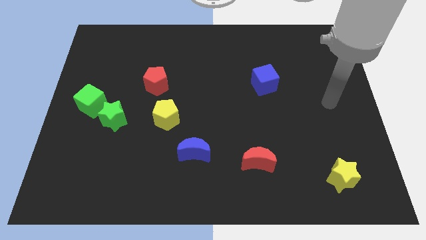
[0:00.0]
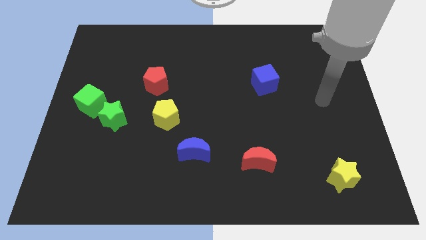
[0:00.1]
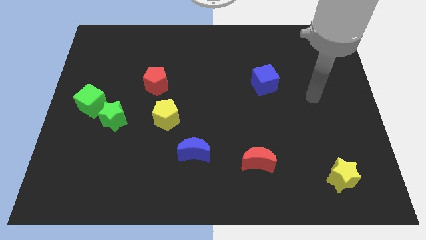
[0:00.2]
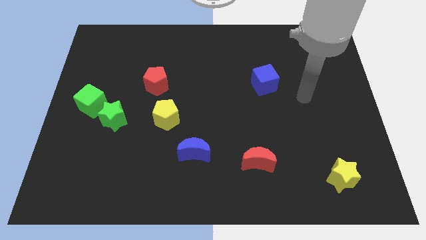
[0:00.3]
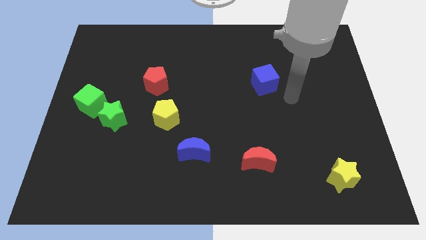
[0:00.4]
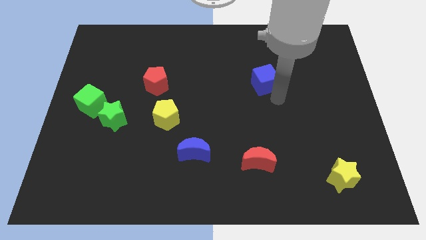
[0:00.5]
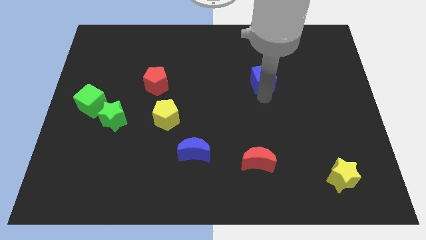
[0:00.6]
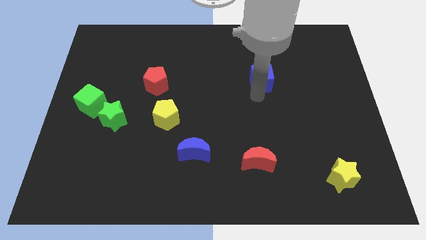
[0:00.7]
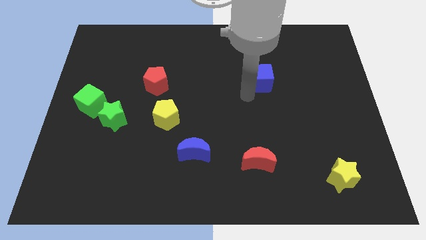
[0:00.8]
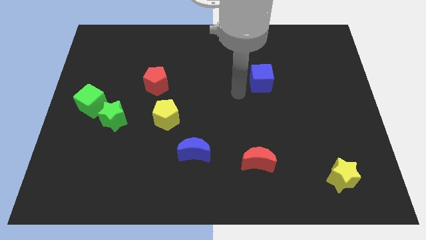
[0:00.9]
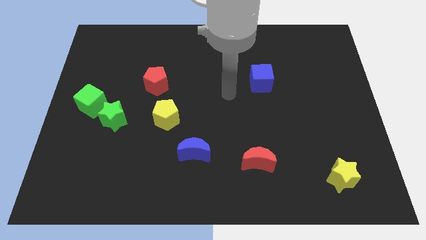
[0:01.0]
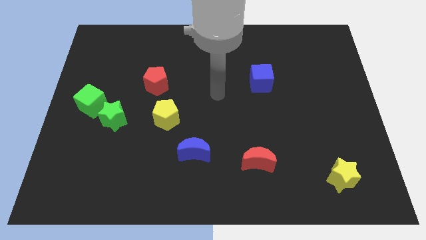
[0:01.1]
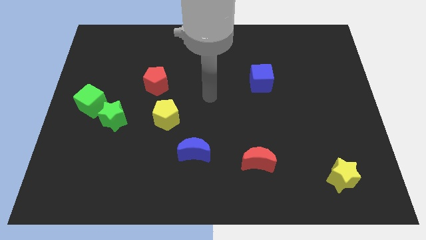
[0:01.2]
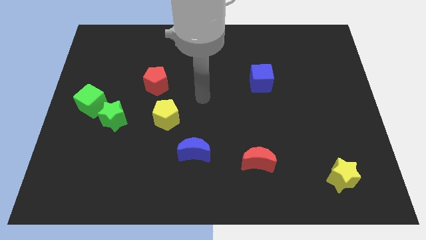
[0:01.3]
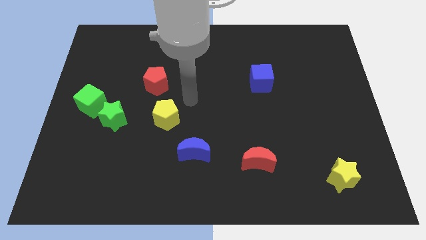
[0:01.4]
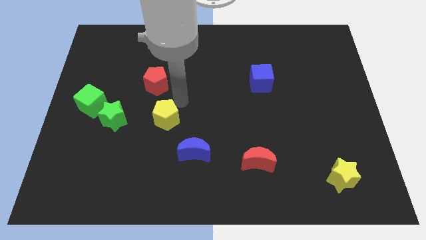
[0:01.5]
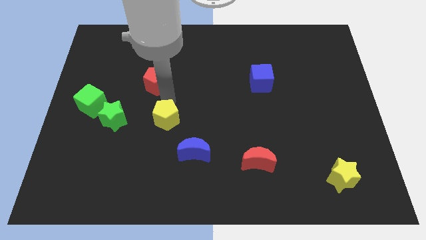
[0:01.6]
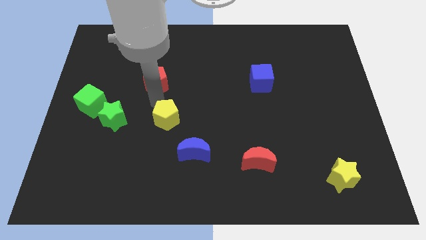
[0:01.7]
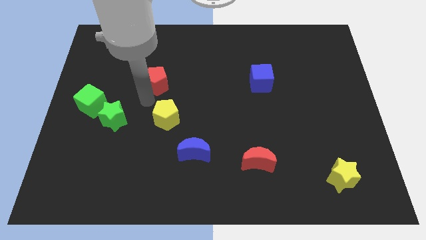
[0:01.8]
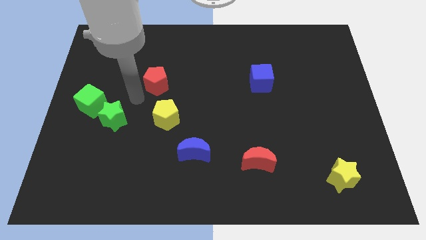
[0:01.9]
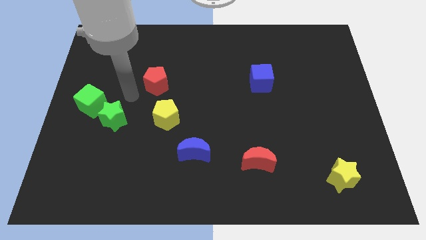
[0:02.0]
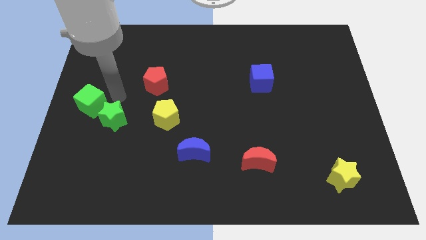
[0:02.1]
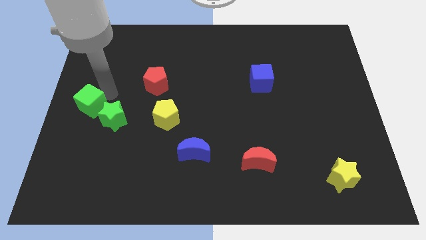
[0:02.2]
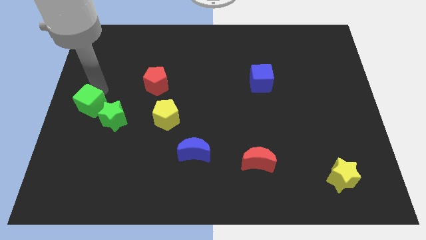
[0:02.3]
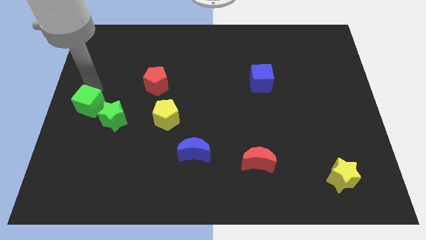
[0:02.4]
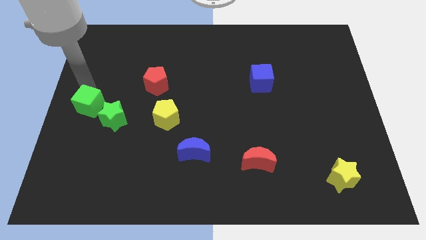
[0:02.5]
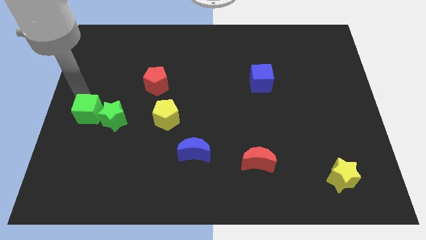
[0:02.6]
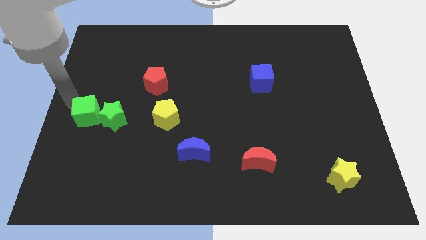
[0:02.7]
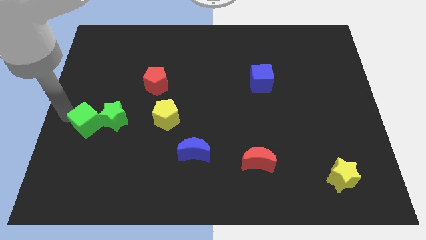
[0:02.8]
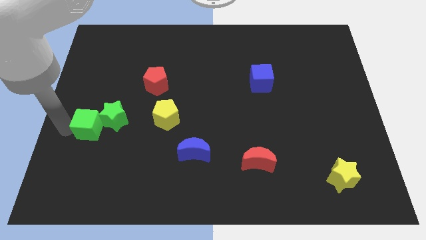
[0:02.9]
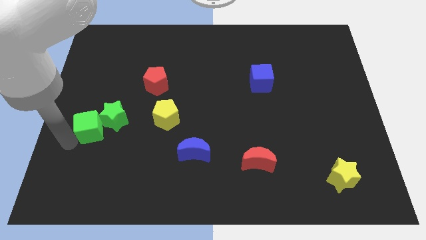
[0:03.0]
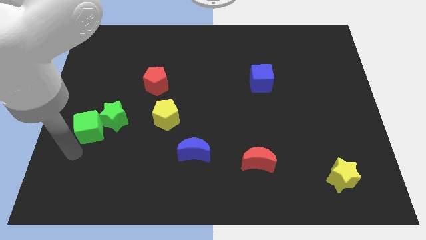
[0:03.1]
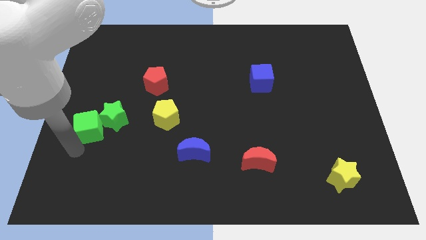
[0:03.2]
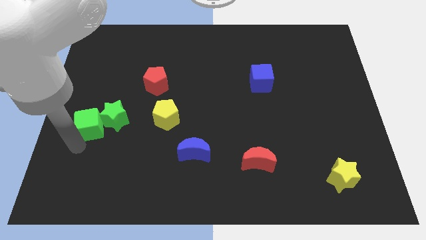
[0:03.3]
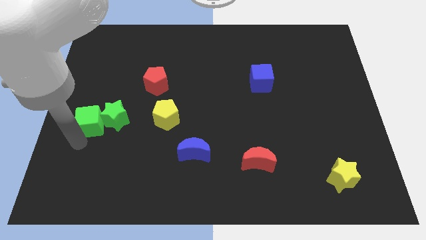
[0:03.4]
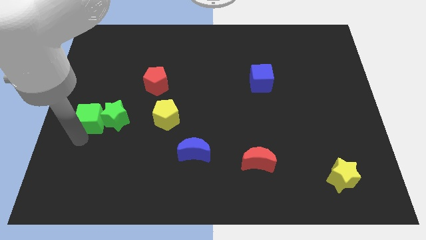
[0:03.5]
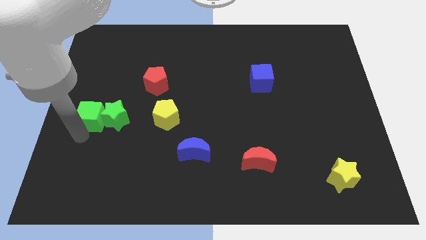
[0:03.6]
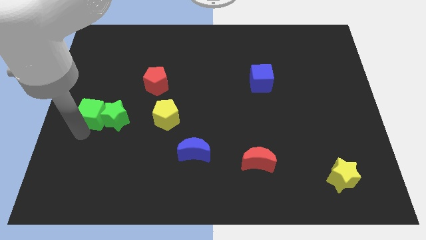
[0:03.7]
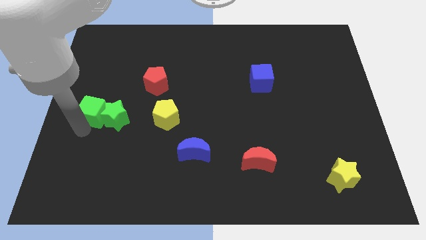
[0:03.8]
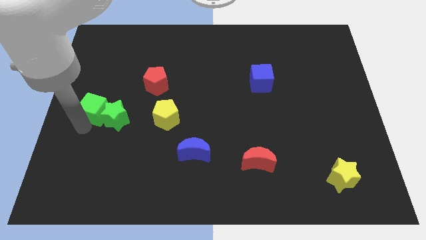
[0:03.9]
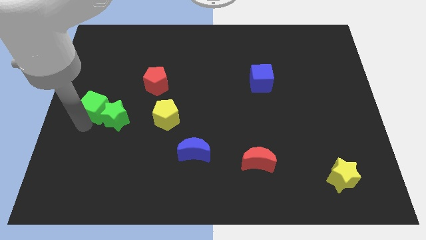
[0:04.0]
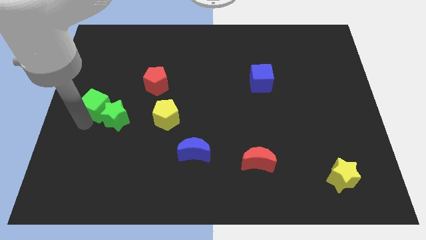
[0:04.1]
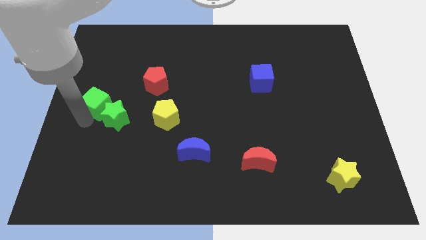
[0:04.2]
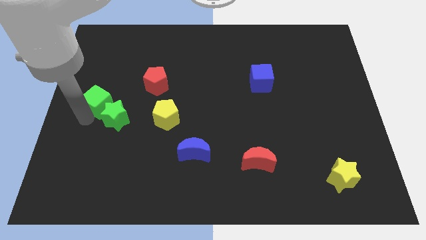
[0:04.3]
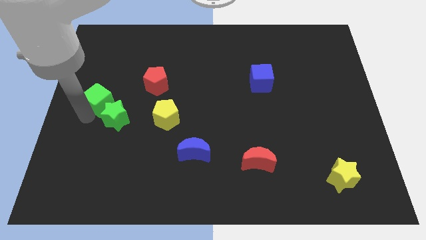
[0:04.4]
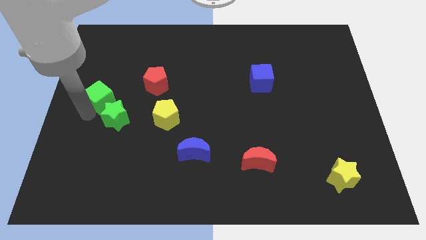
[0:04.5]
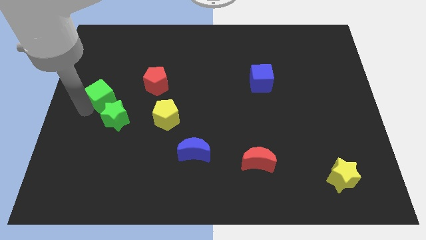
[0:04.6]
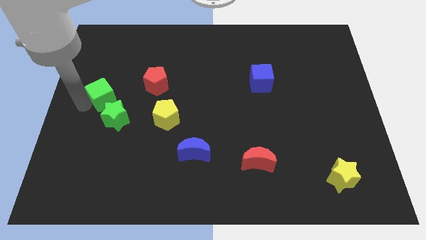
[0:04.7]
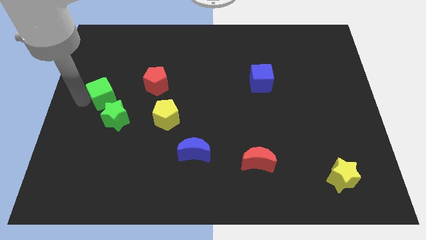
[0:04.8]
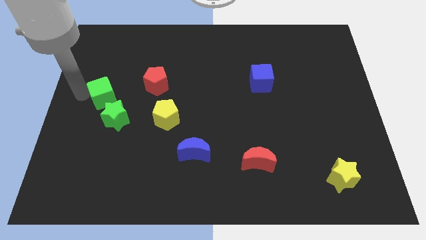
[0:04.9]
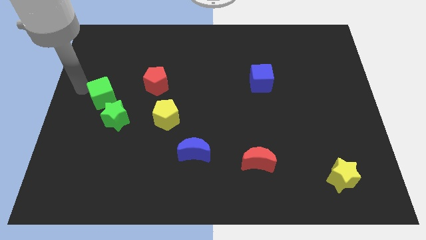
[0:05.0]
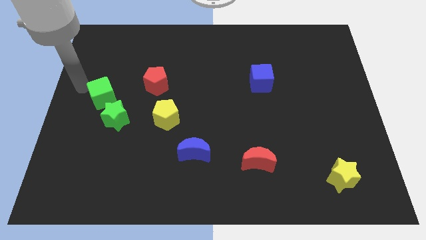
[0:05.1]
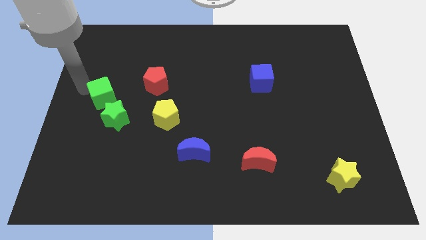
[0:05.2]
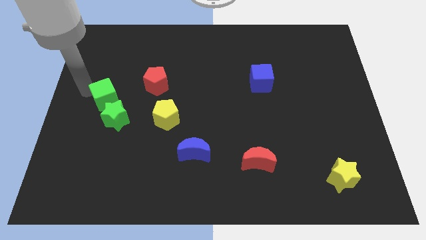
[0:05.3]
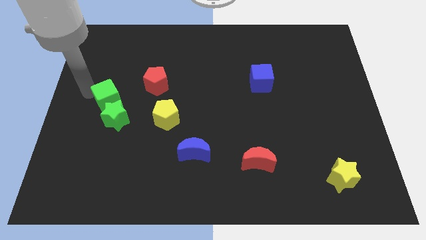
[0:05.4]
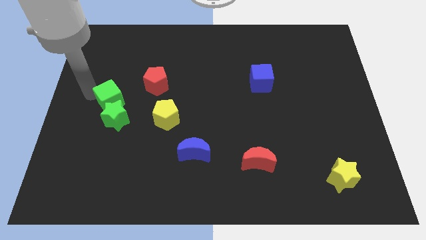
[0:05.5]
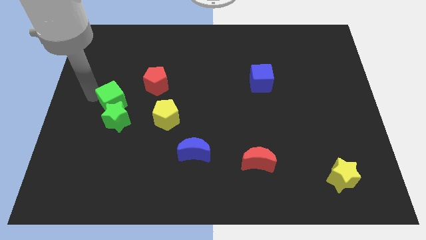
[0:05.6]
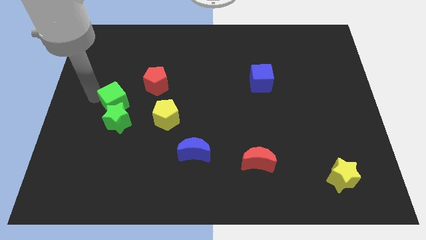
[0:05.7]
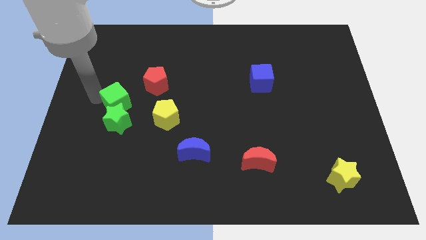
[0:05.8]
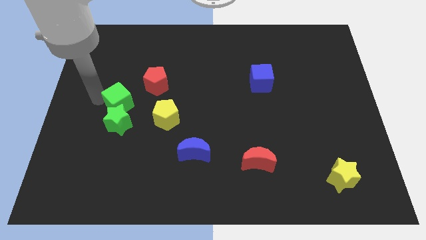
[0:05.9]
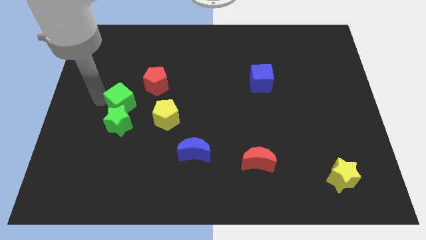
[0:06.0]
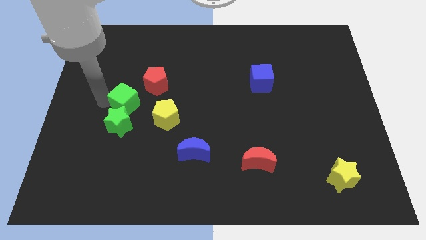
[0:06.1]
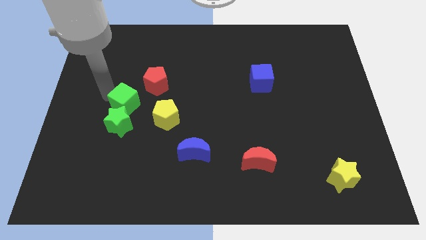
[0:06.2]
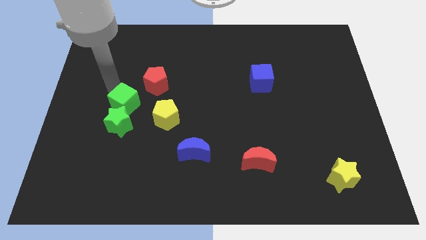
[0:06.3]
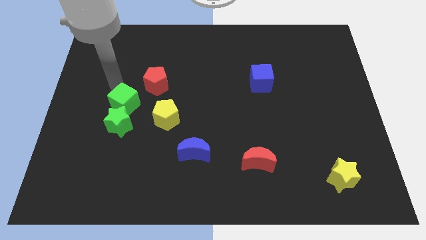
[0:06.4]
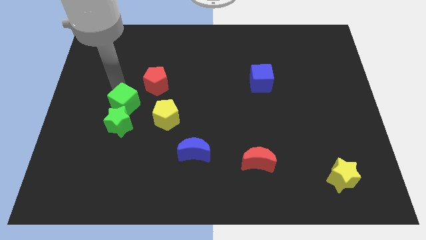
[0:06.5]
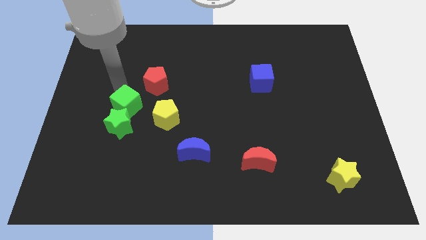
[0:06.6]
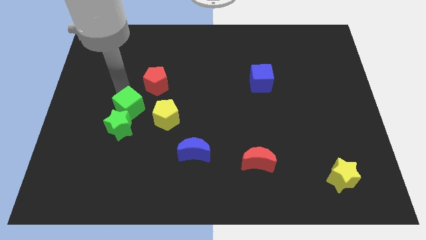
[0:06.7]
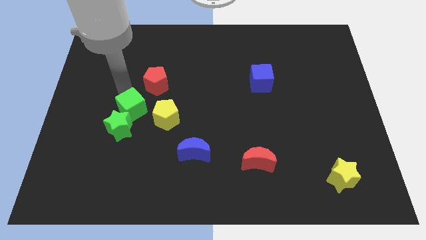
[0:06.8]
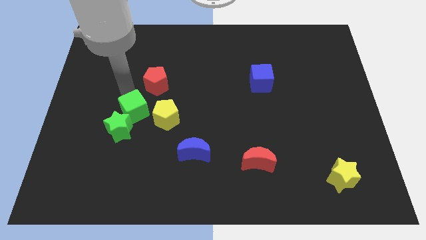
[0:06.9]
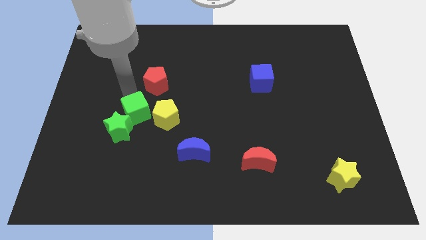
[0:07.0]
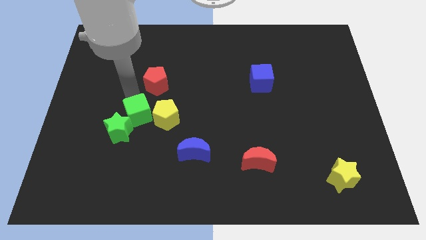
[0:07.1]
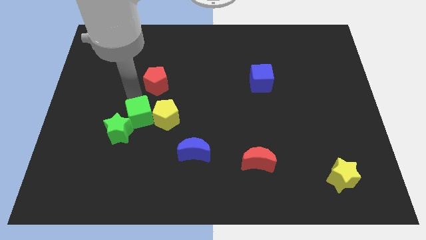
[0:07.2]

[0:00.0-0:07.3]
move the green cube diagonally down and to the left of the yellow pentagon
